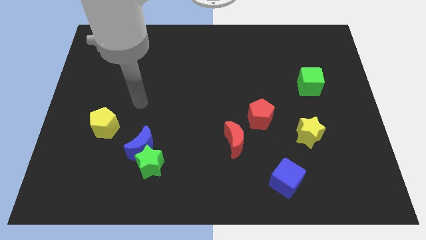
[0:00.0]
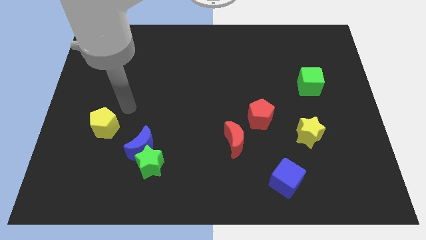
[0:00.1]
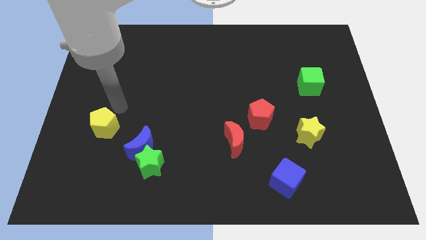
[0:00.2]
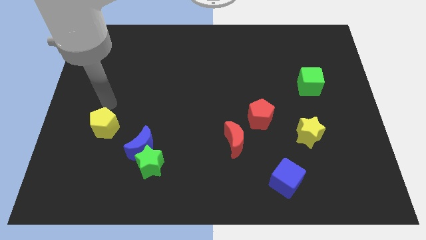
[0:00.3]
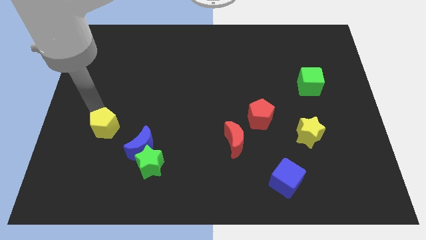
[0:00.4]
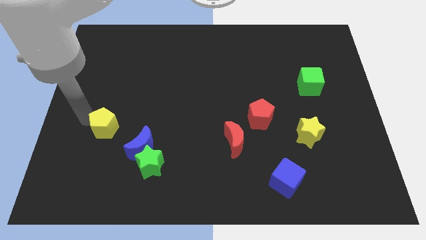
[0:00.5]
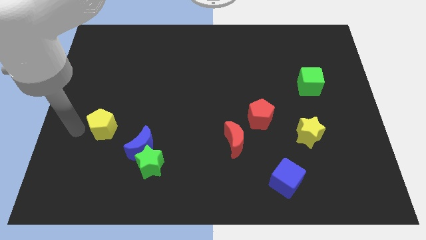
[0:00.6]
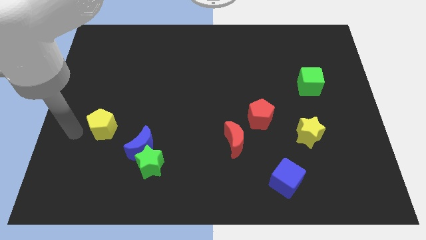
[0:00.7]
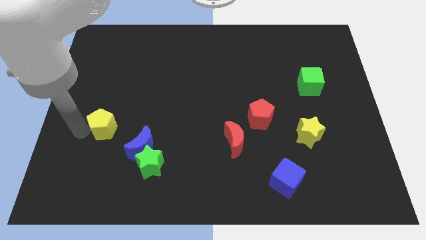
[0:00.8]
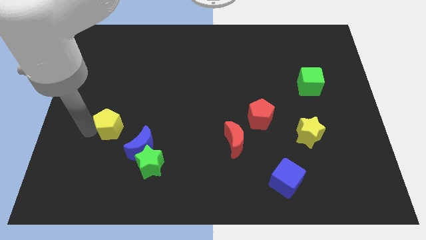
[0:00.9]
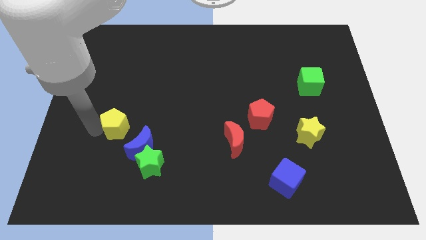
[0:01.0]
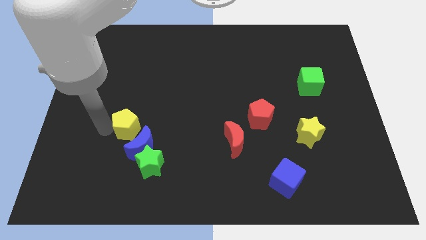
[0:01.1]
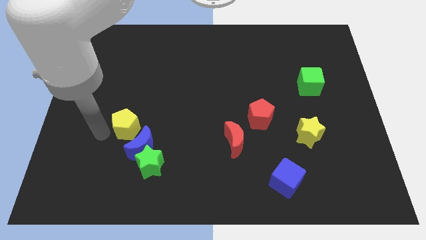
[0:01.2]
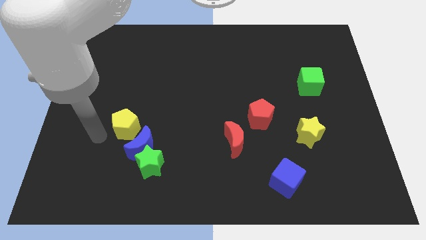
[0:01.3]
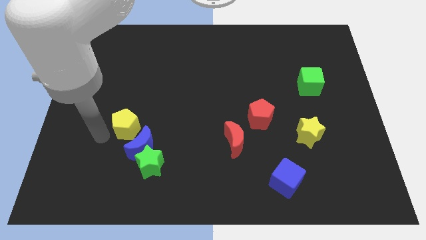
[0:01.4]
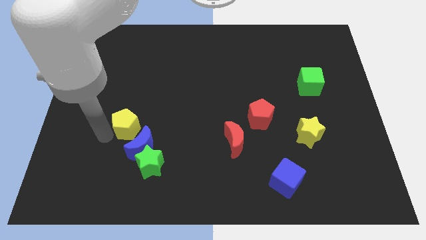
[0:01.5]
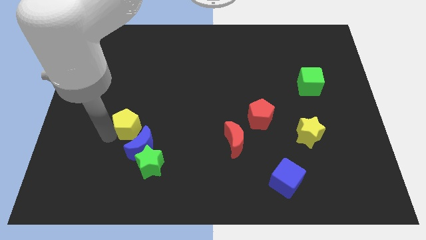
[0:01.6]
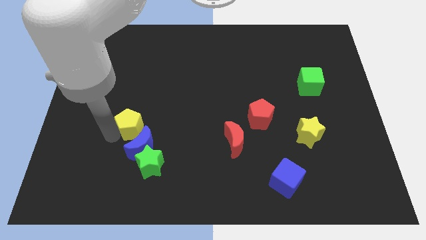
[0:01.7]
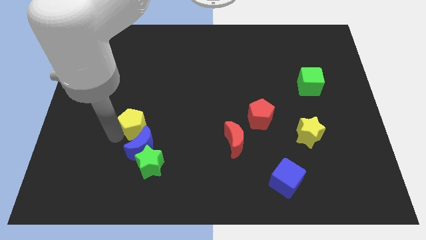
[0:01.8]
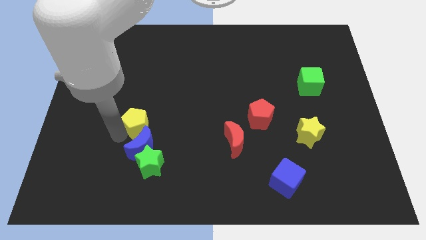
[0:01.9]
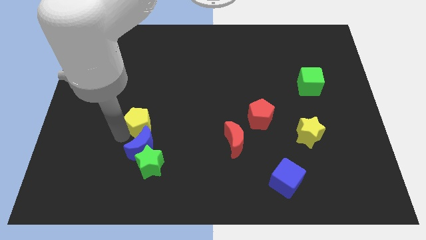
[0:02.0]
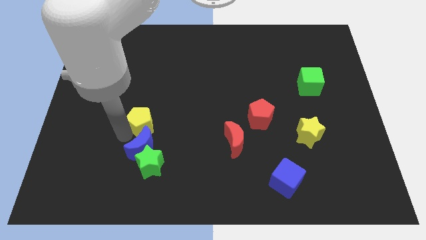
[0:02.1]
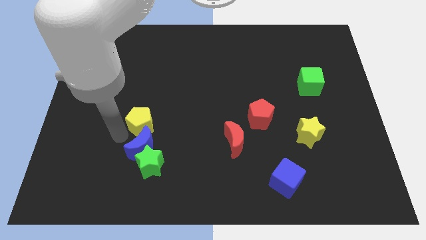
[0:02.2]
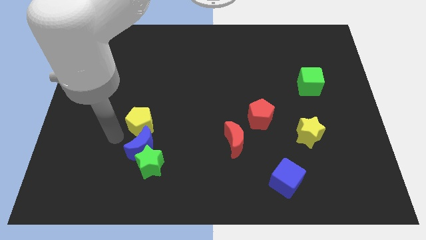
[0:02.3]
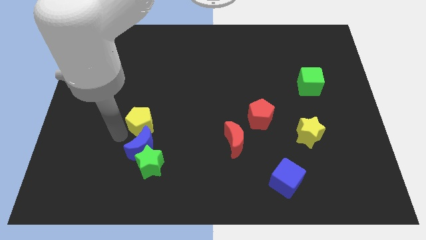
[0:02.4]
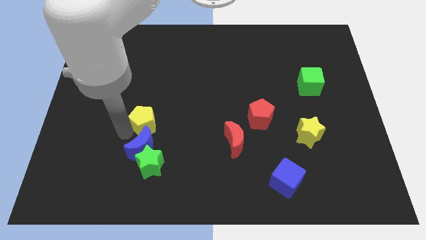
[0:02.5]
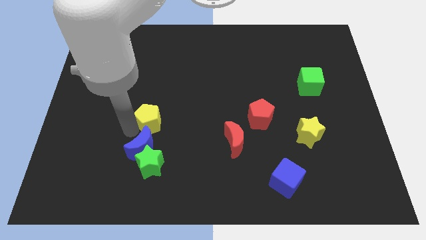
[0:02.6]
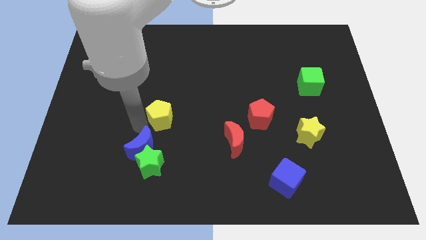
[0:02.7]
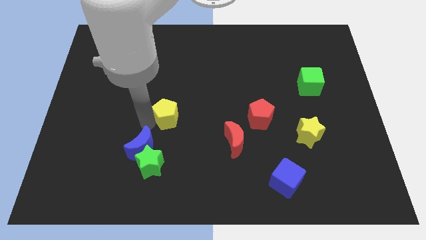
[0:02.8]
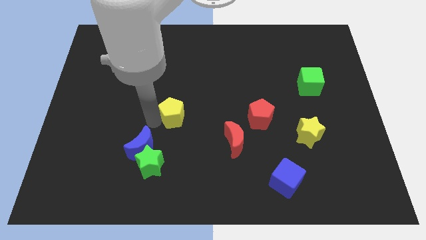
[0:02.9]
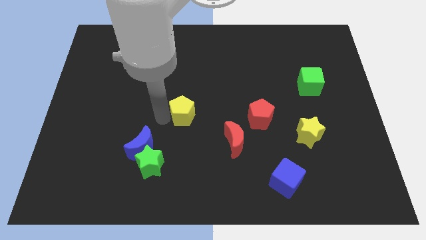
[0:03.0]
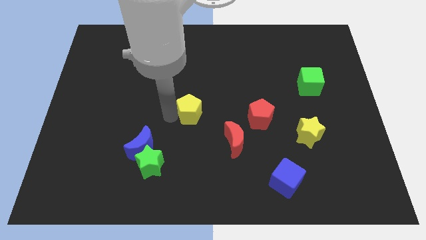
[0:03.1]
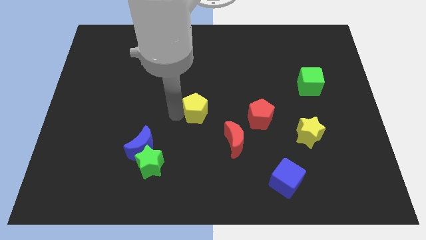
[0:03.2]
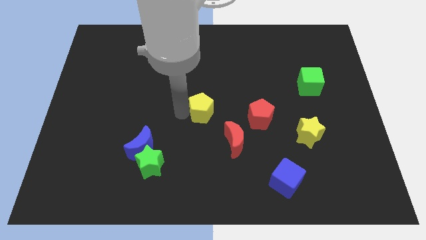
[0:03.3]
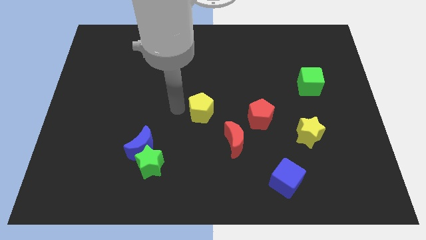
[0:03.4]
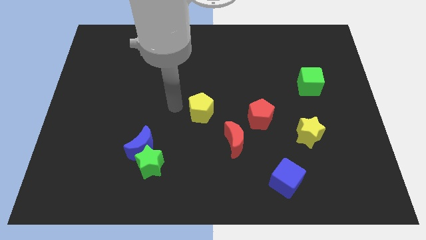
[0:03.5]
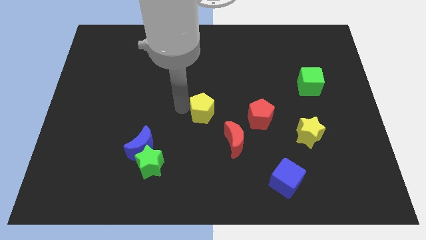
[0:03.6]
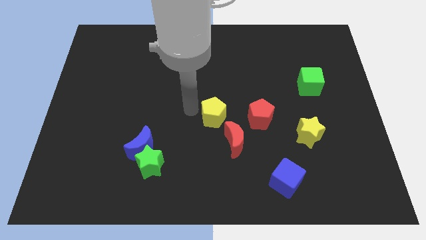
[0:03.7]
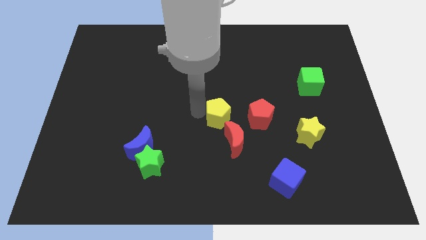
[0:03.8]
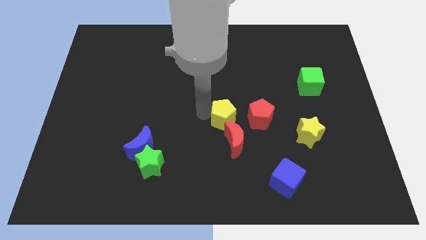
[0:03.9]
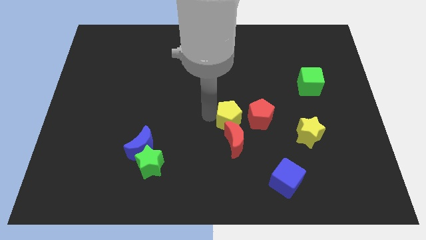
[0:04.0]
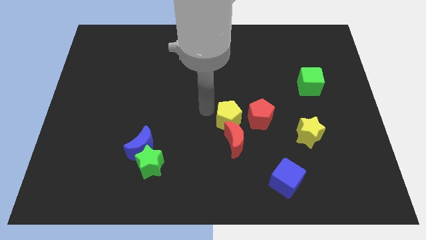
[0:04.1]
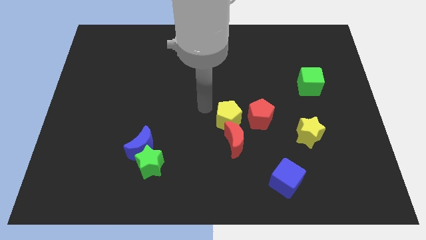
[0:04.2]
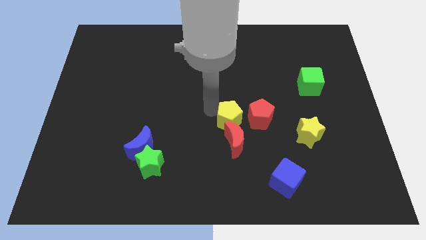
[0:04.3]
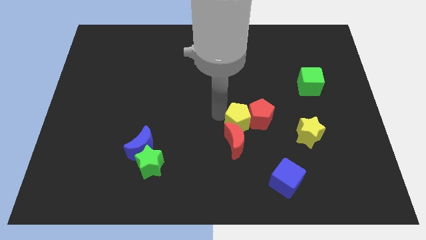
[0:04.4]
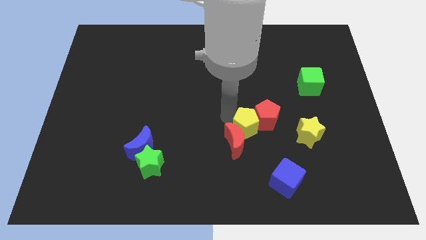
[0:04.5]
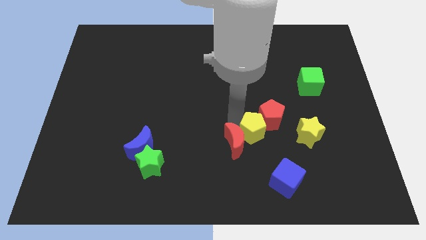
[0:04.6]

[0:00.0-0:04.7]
put the yellow pentagon to the right of the red moon

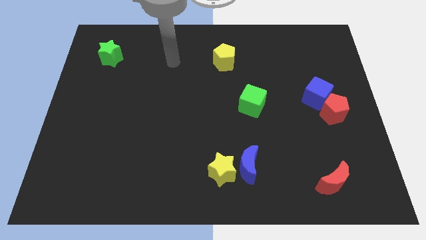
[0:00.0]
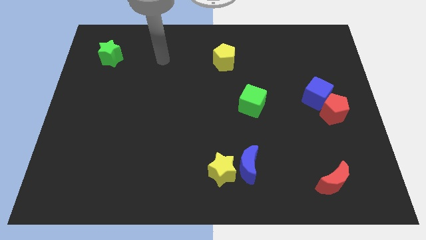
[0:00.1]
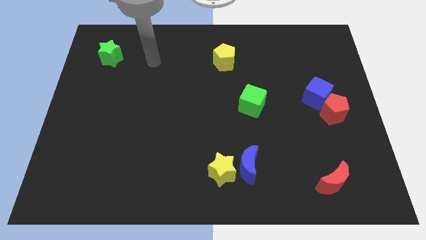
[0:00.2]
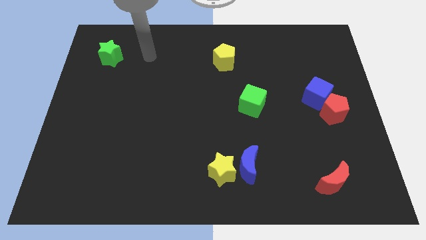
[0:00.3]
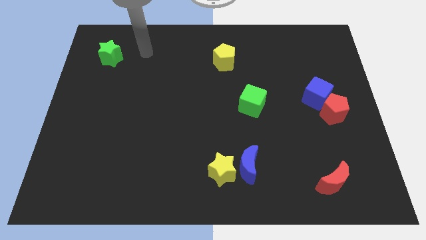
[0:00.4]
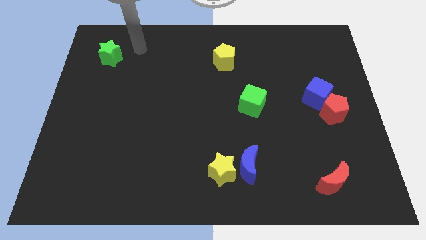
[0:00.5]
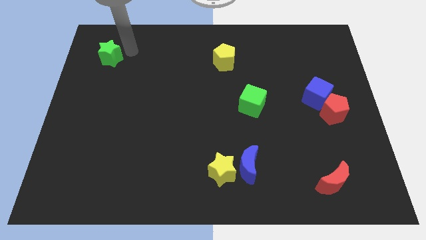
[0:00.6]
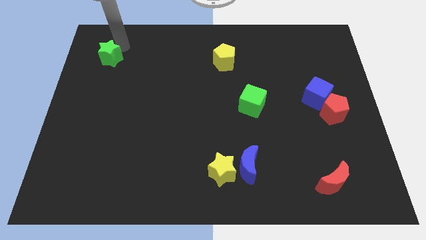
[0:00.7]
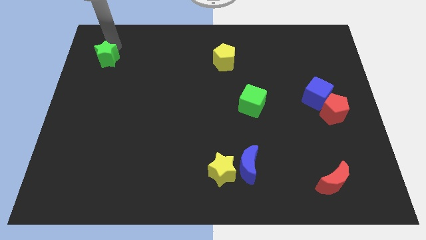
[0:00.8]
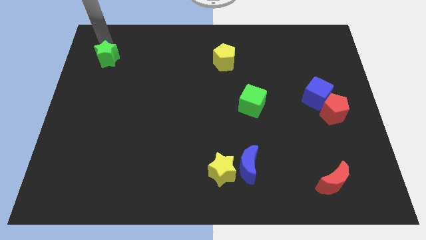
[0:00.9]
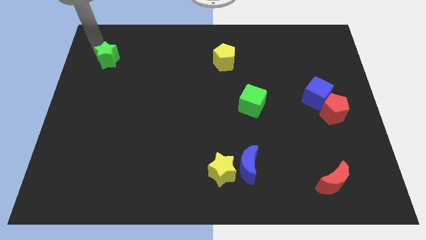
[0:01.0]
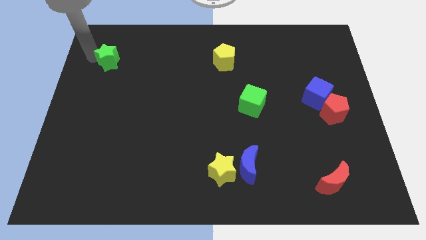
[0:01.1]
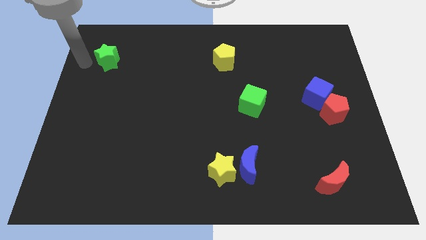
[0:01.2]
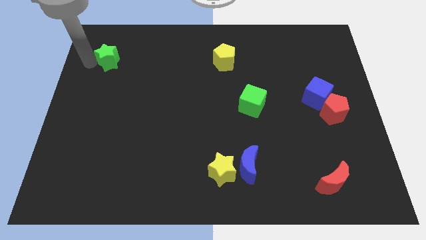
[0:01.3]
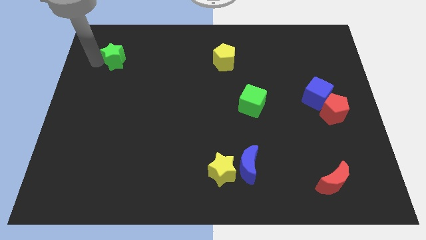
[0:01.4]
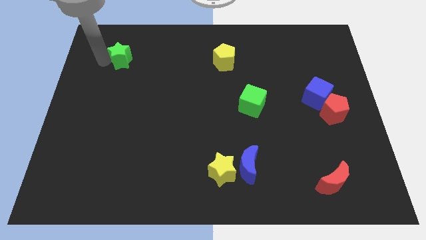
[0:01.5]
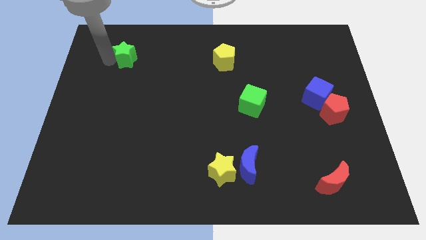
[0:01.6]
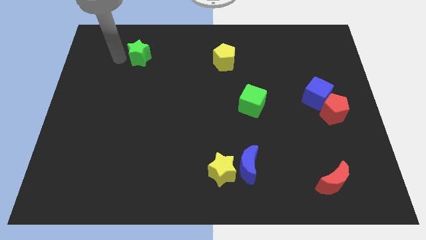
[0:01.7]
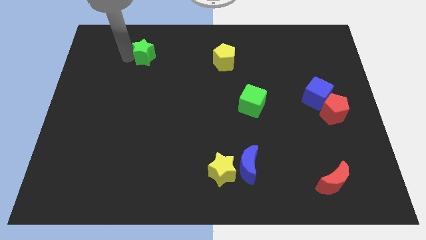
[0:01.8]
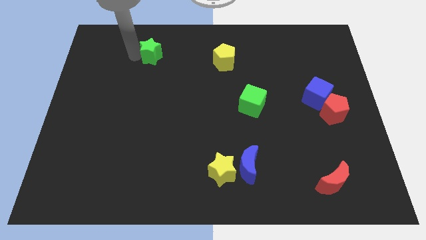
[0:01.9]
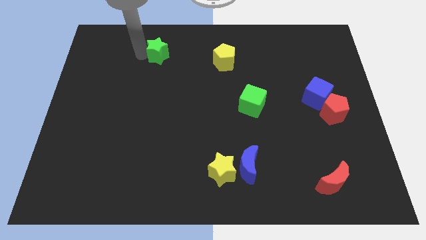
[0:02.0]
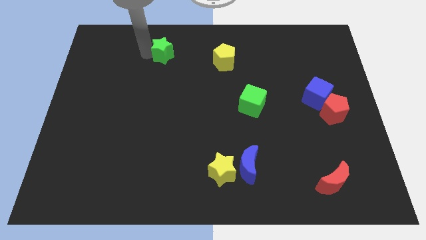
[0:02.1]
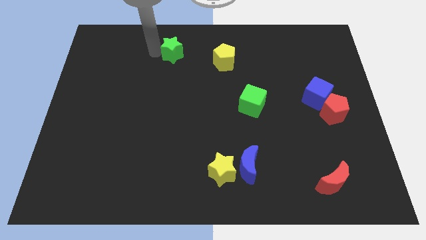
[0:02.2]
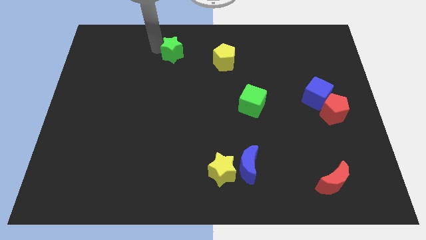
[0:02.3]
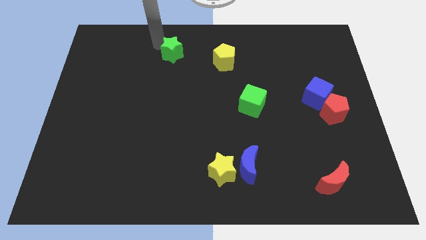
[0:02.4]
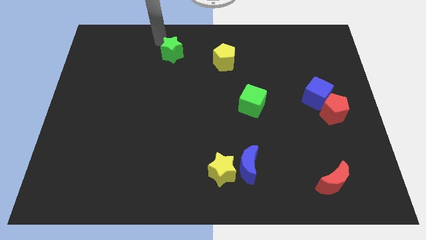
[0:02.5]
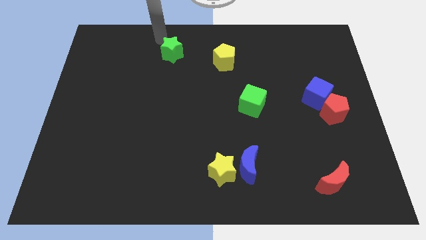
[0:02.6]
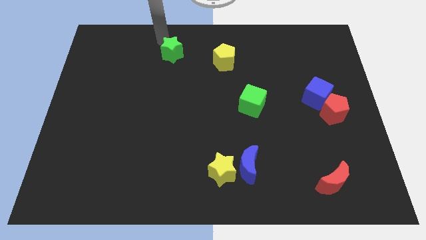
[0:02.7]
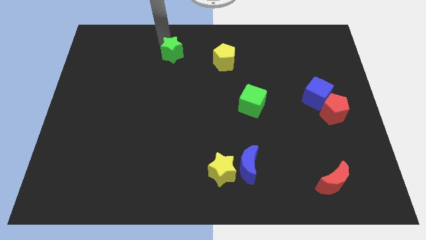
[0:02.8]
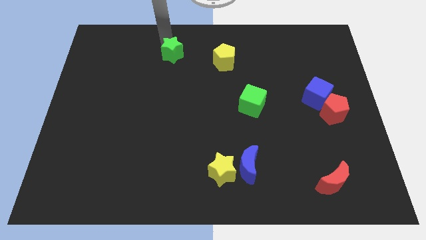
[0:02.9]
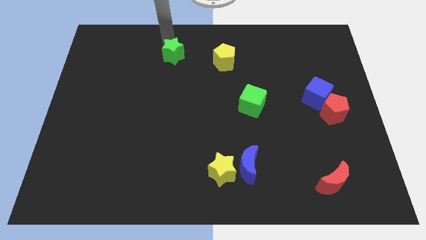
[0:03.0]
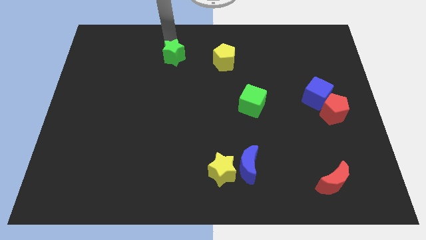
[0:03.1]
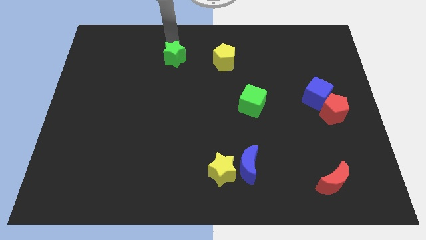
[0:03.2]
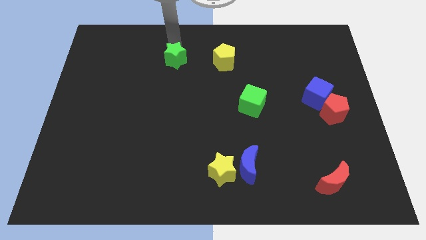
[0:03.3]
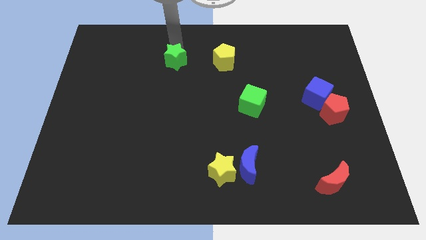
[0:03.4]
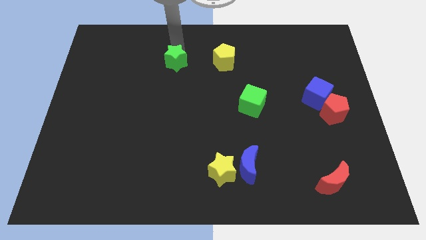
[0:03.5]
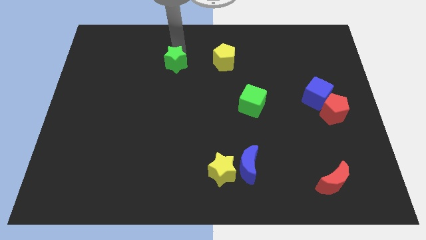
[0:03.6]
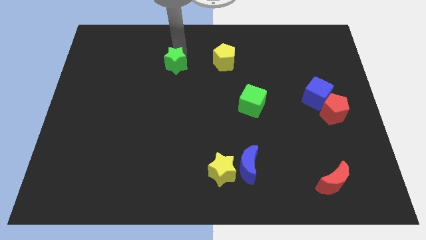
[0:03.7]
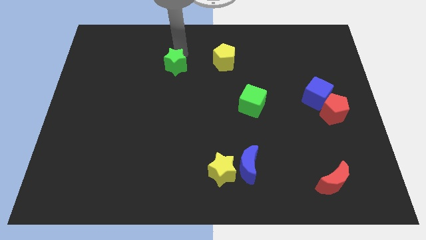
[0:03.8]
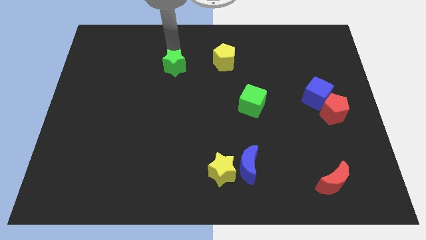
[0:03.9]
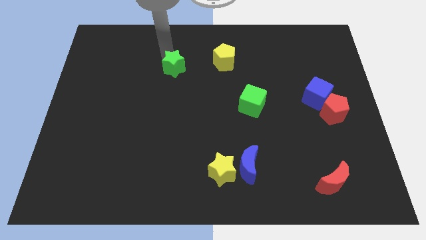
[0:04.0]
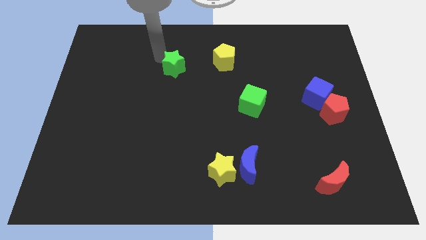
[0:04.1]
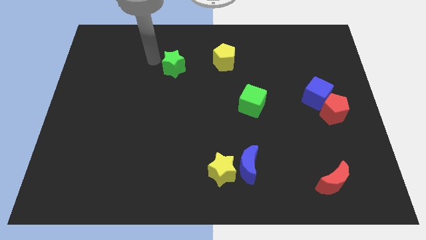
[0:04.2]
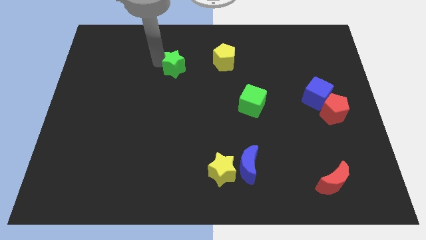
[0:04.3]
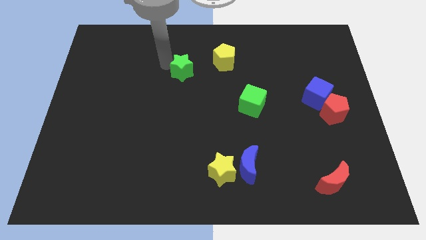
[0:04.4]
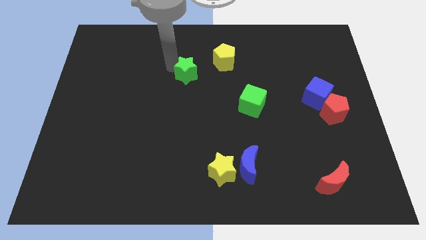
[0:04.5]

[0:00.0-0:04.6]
push the green star diagonally down and to the left of the yellow pentagon
